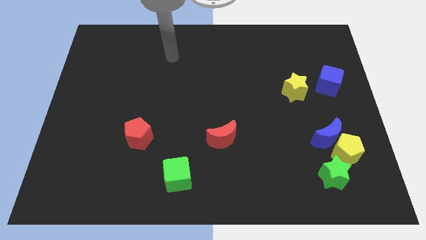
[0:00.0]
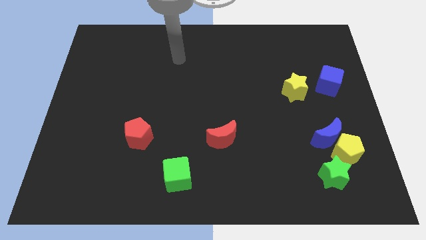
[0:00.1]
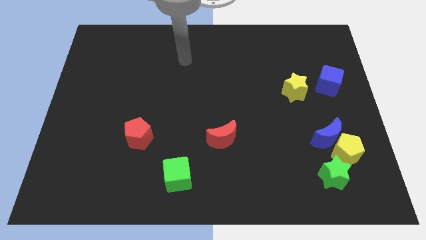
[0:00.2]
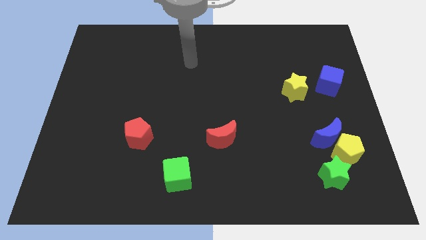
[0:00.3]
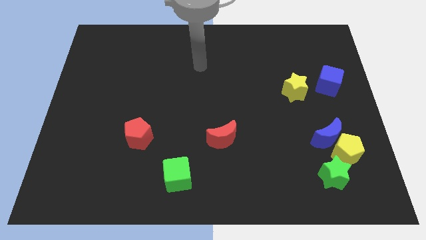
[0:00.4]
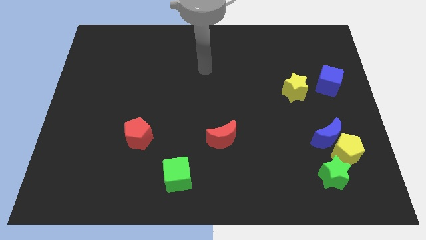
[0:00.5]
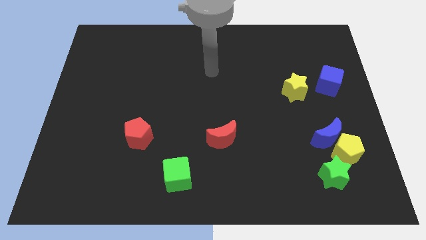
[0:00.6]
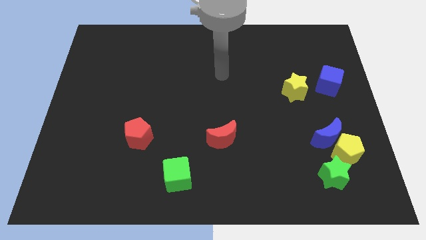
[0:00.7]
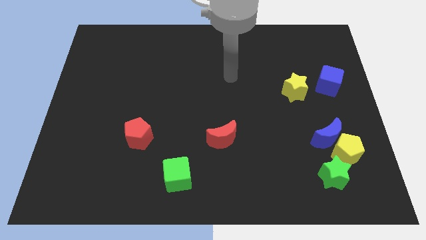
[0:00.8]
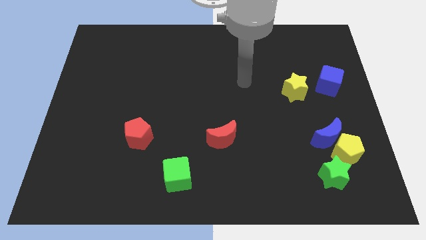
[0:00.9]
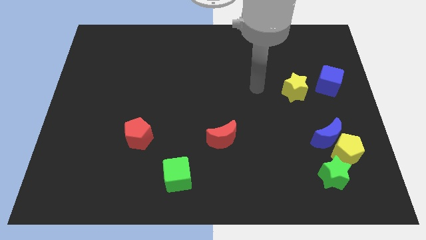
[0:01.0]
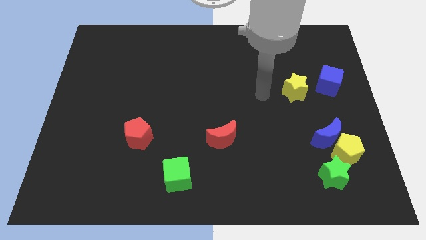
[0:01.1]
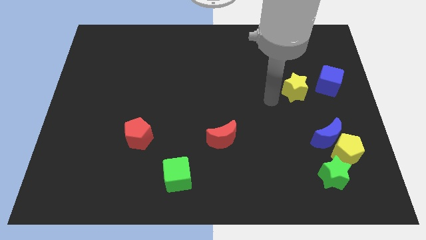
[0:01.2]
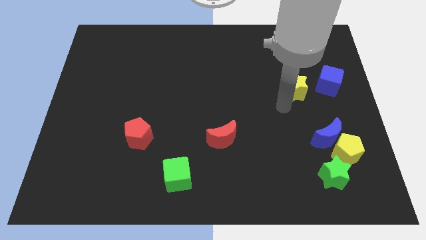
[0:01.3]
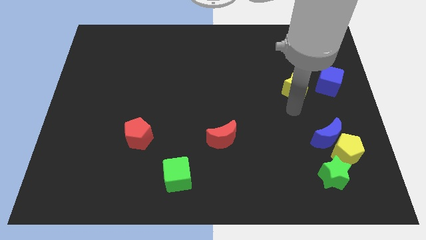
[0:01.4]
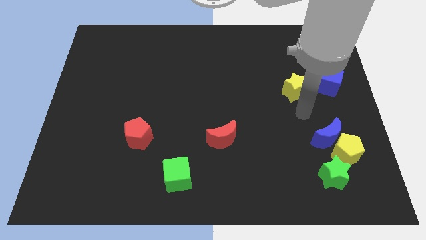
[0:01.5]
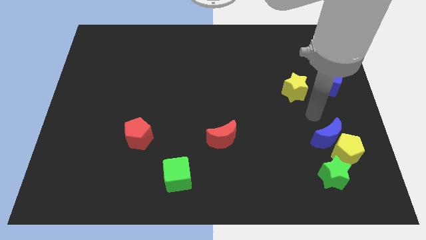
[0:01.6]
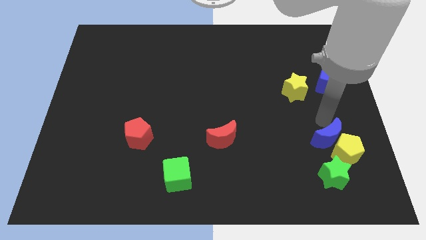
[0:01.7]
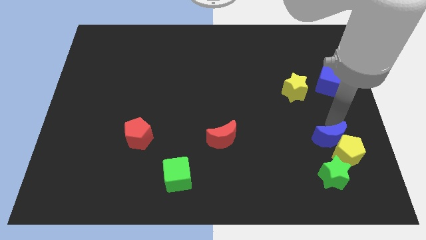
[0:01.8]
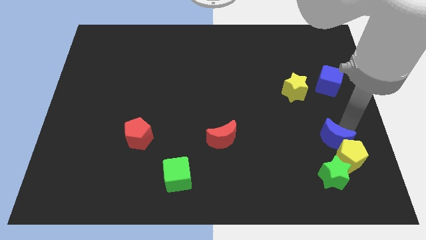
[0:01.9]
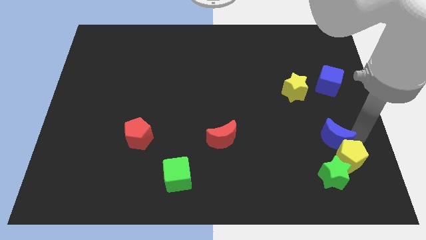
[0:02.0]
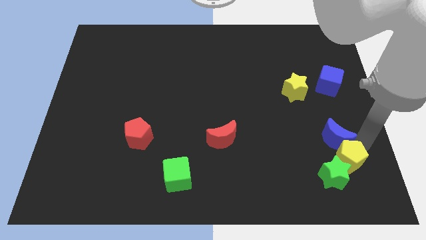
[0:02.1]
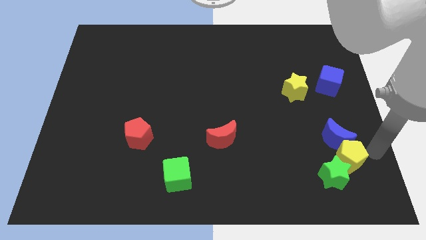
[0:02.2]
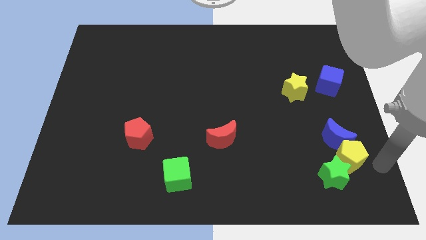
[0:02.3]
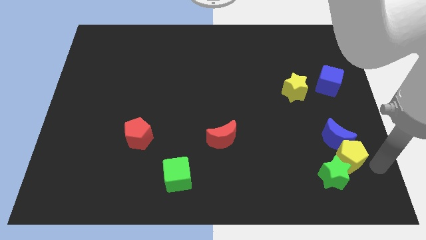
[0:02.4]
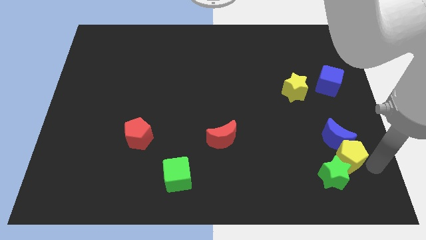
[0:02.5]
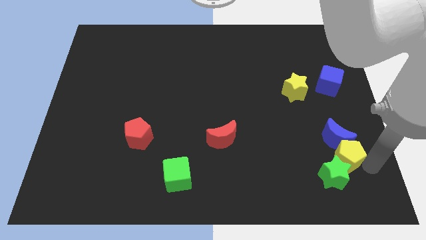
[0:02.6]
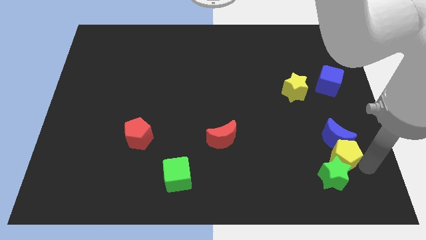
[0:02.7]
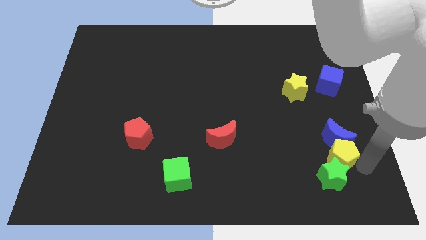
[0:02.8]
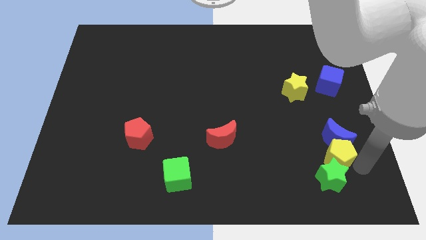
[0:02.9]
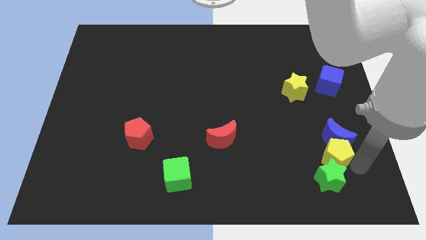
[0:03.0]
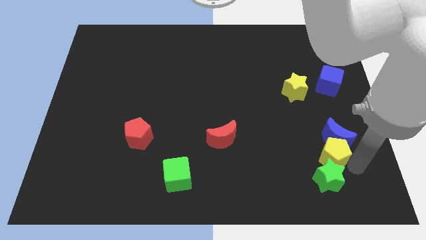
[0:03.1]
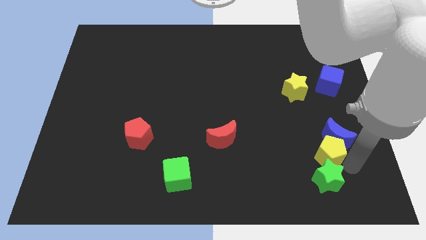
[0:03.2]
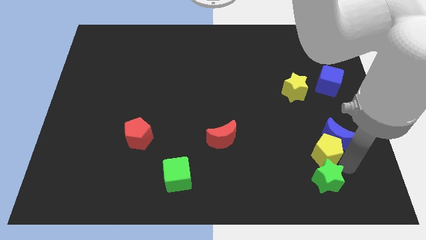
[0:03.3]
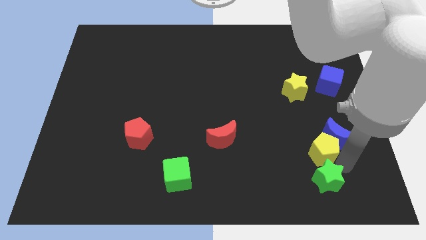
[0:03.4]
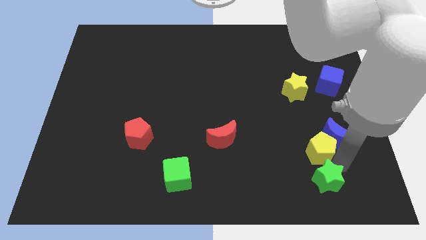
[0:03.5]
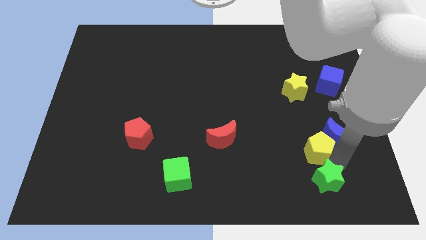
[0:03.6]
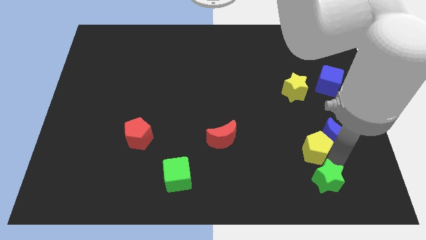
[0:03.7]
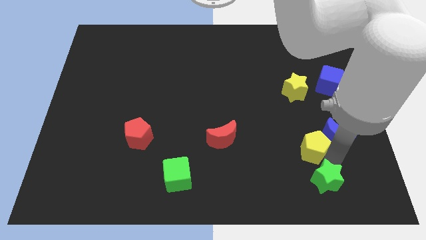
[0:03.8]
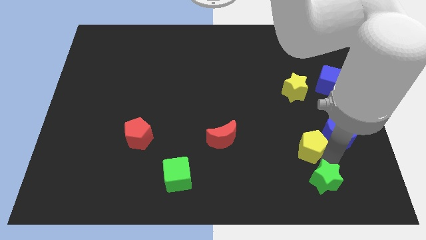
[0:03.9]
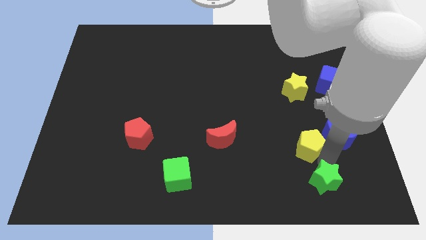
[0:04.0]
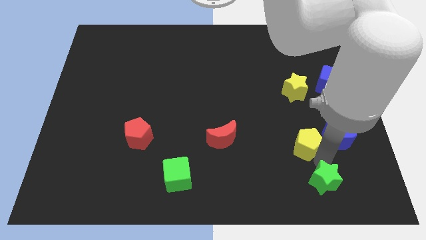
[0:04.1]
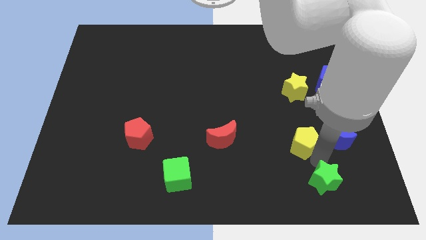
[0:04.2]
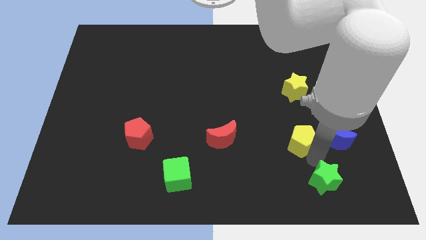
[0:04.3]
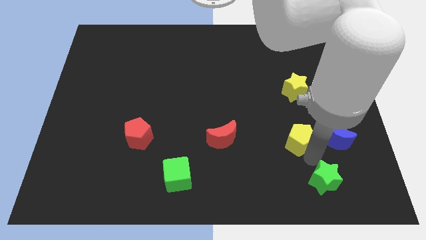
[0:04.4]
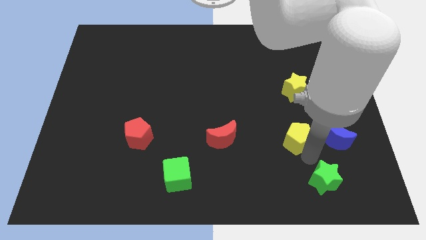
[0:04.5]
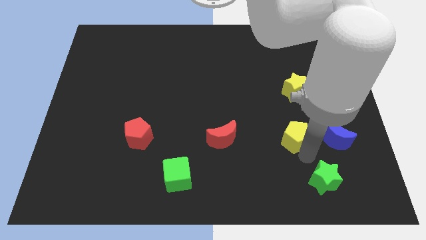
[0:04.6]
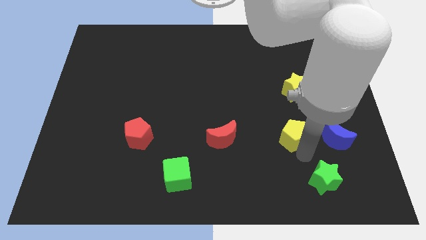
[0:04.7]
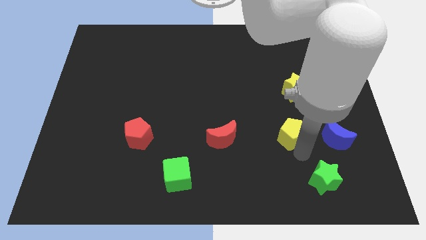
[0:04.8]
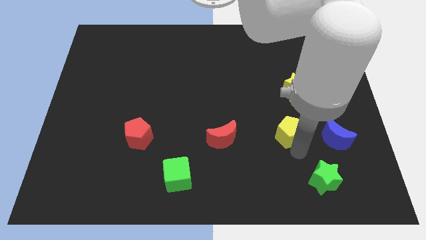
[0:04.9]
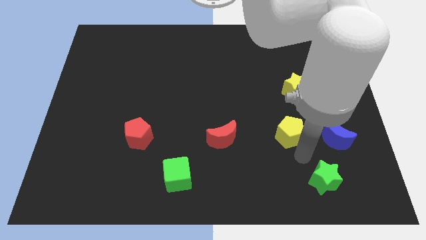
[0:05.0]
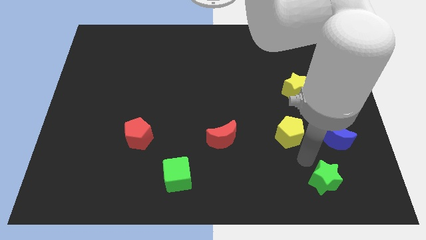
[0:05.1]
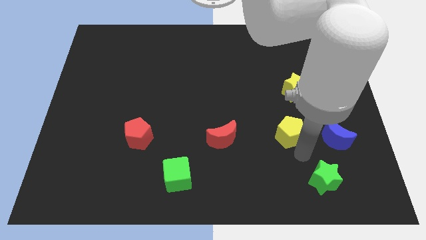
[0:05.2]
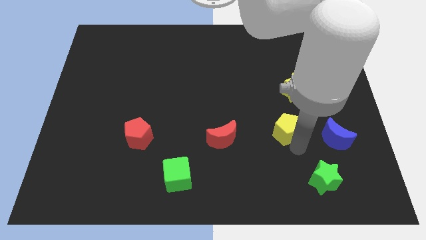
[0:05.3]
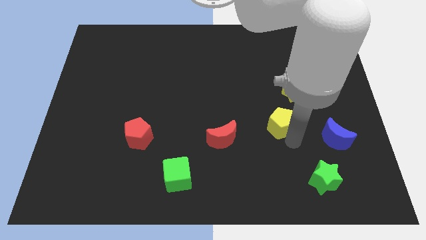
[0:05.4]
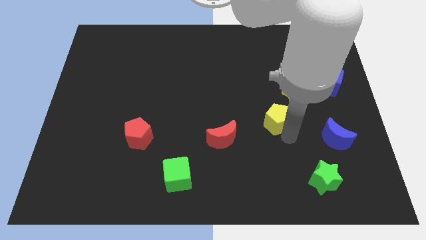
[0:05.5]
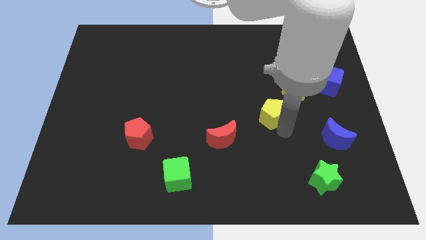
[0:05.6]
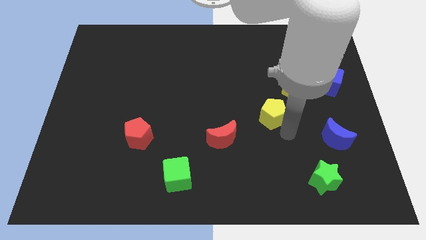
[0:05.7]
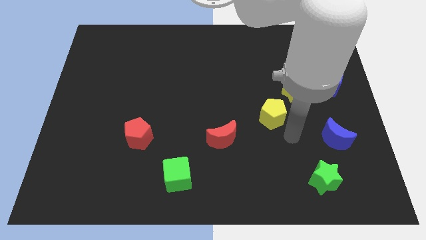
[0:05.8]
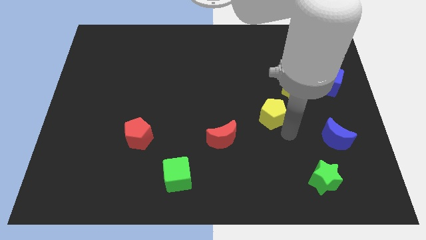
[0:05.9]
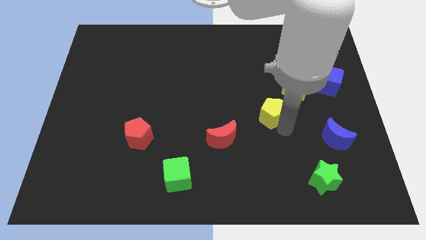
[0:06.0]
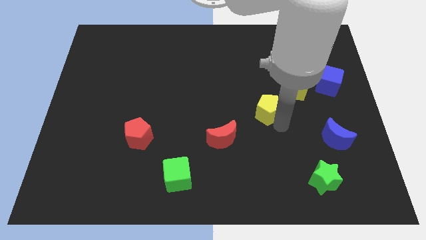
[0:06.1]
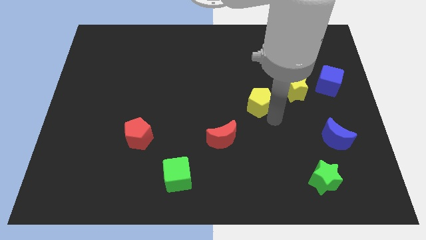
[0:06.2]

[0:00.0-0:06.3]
push the yellow pentagon upwards and left diagonally

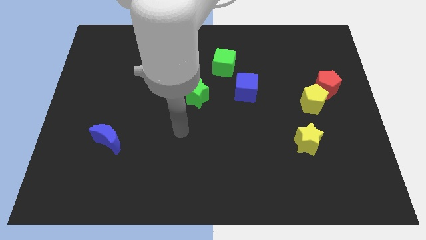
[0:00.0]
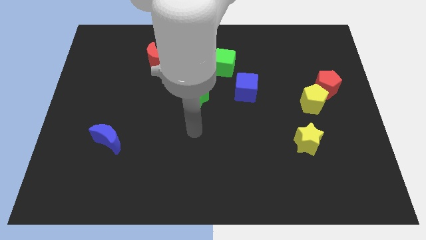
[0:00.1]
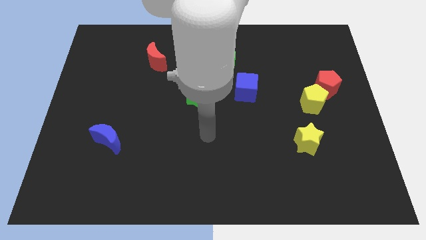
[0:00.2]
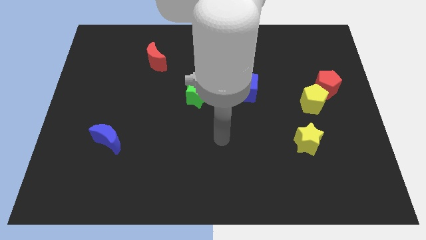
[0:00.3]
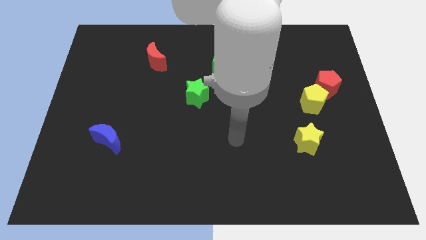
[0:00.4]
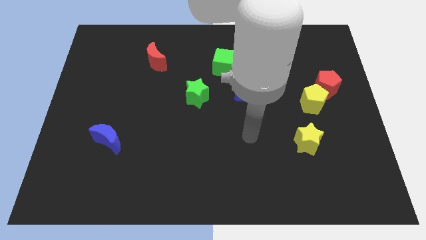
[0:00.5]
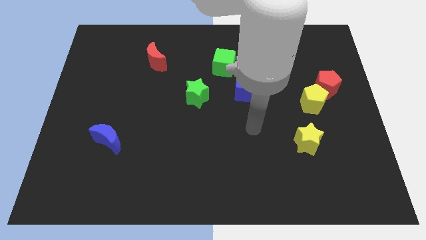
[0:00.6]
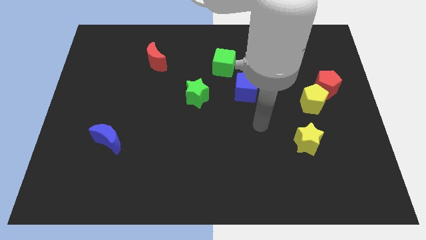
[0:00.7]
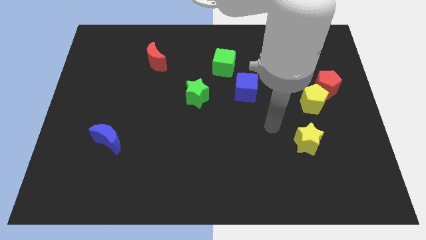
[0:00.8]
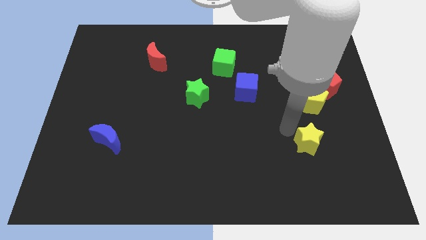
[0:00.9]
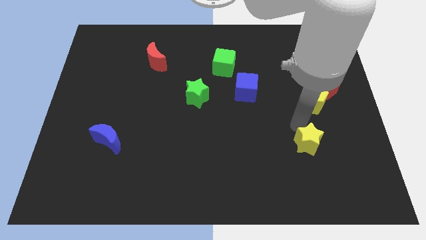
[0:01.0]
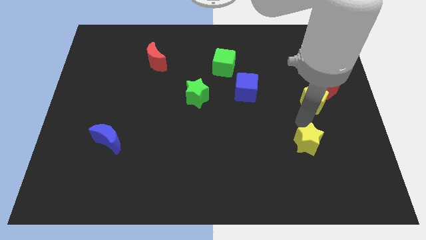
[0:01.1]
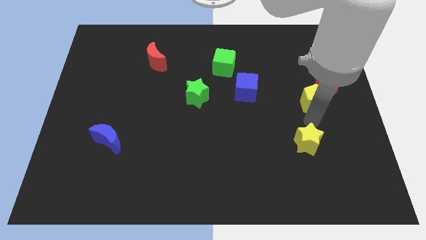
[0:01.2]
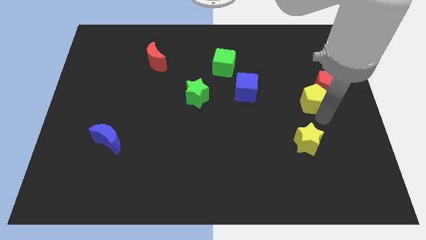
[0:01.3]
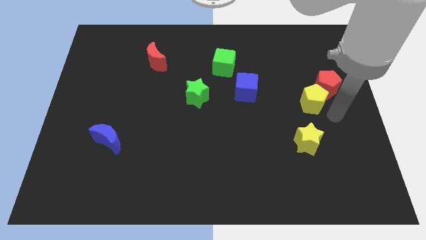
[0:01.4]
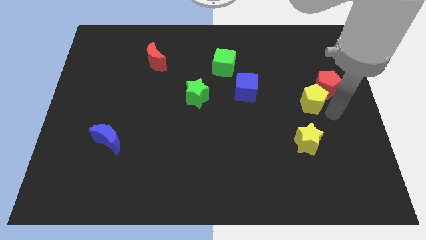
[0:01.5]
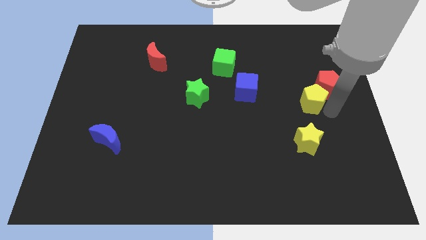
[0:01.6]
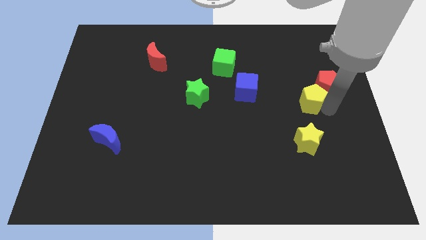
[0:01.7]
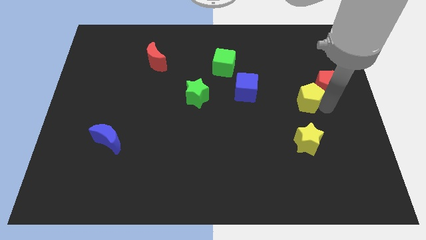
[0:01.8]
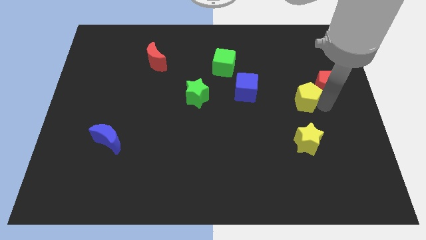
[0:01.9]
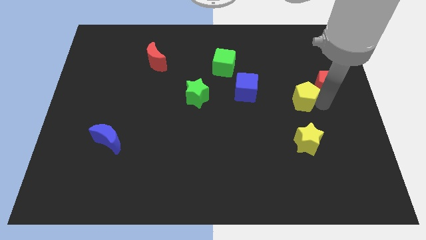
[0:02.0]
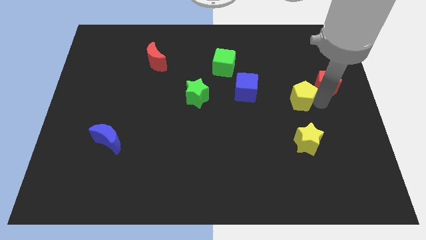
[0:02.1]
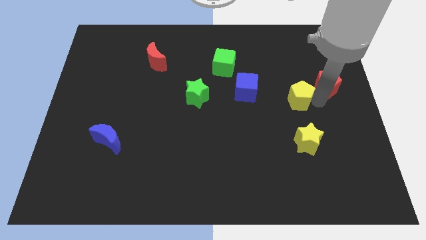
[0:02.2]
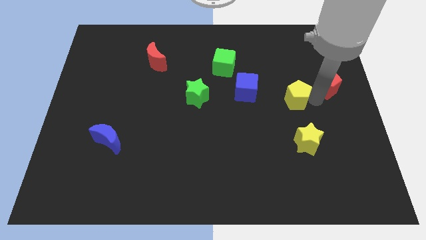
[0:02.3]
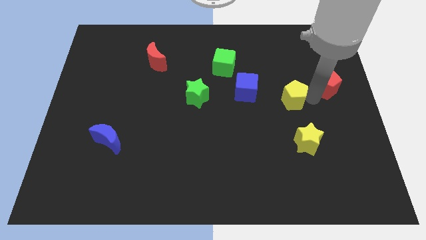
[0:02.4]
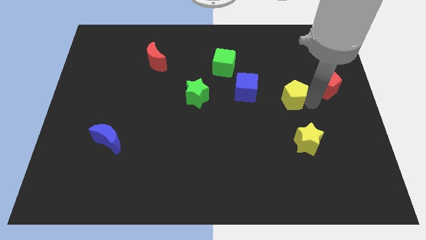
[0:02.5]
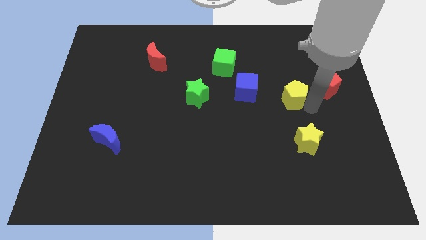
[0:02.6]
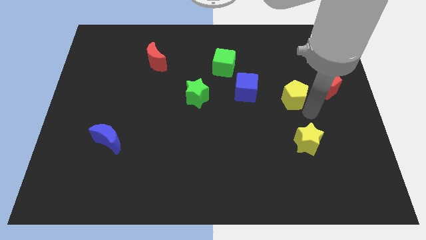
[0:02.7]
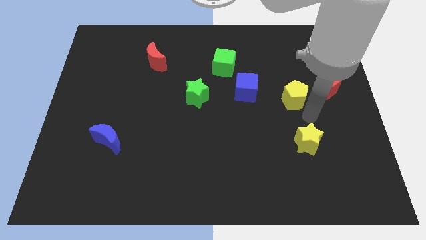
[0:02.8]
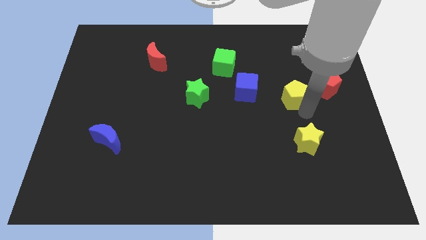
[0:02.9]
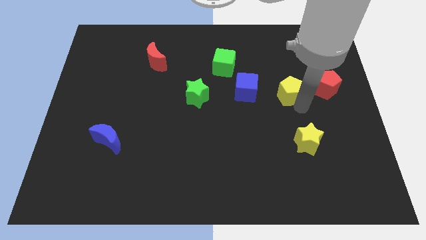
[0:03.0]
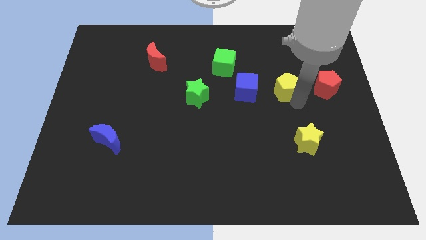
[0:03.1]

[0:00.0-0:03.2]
slightly push the yellow pentagon upwards and to the left diagonally
